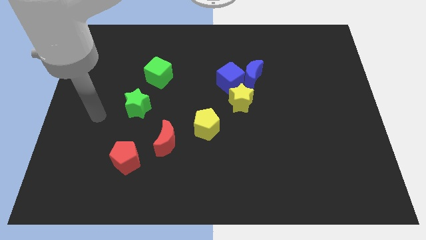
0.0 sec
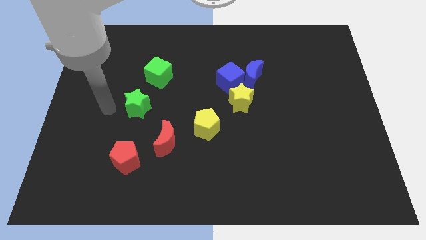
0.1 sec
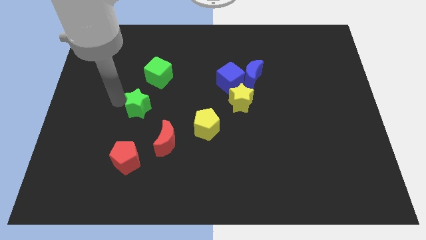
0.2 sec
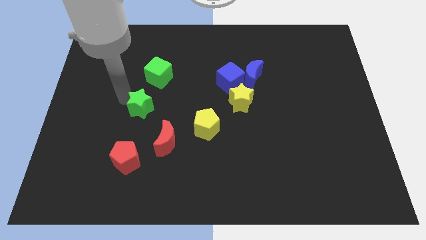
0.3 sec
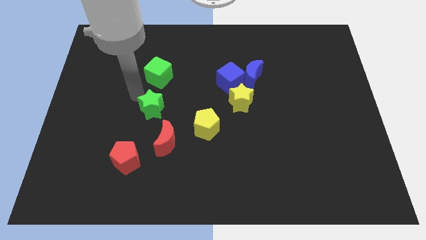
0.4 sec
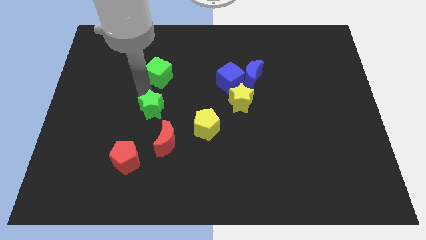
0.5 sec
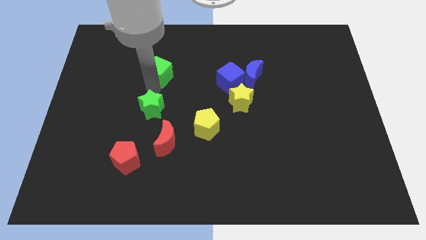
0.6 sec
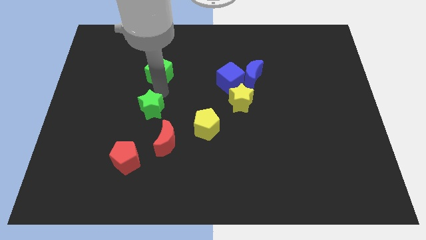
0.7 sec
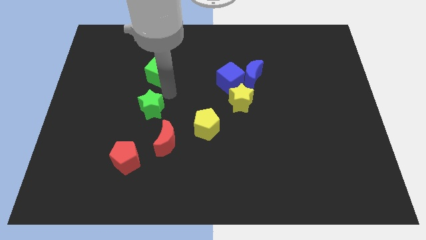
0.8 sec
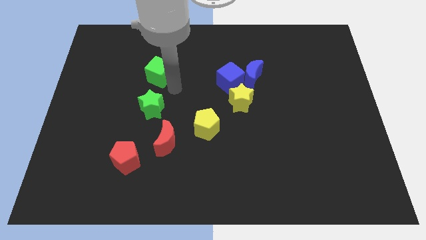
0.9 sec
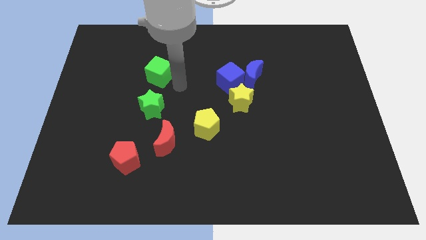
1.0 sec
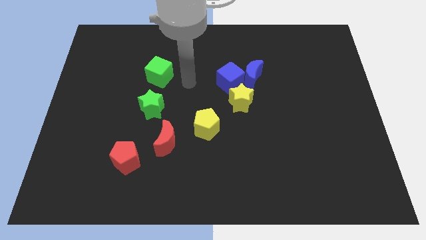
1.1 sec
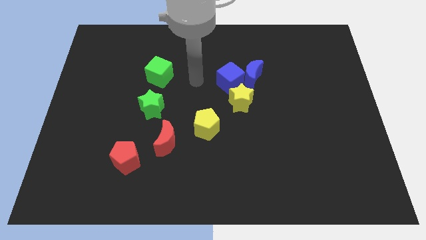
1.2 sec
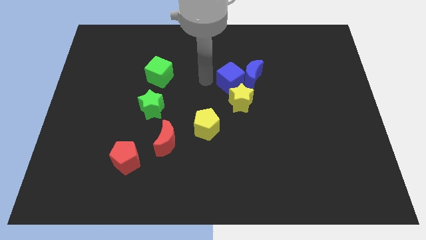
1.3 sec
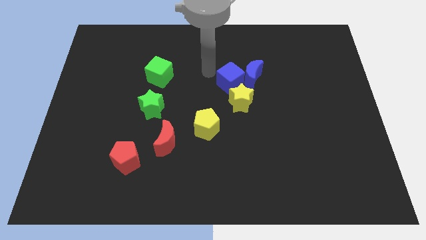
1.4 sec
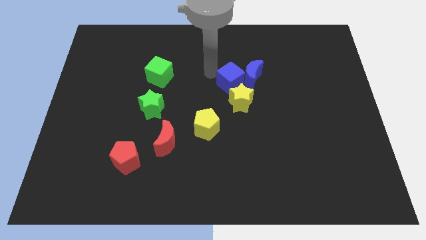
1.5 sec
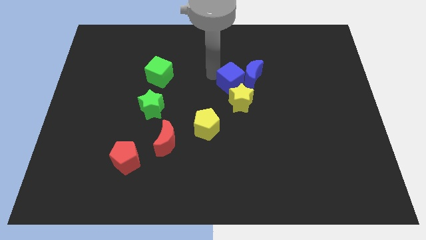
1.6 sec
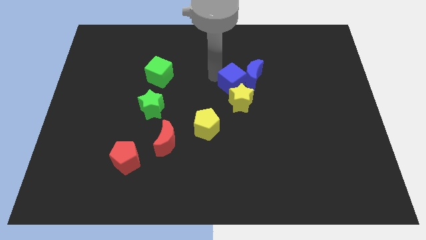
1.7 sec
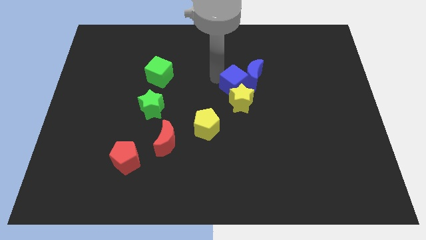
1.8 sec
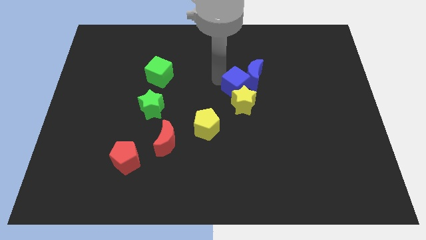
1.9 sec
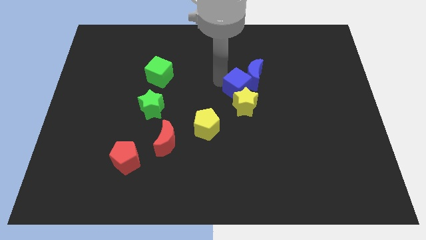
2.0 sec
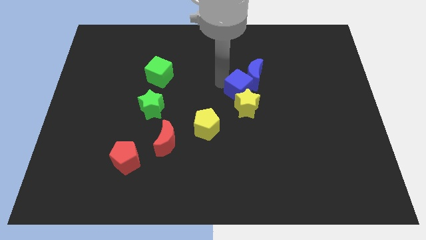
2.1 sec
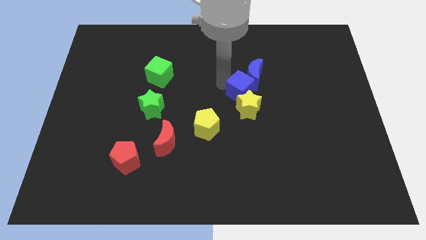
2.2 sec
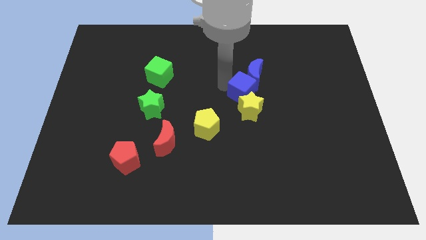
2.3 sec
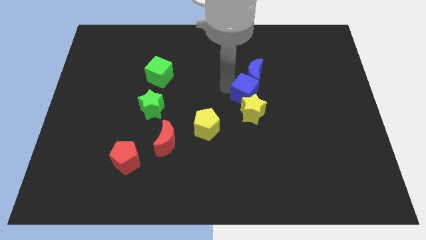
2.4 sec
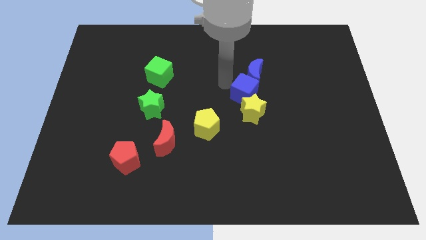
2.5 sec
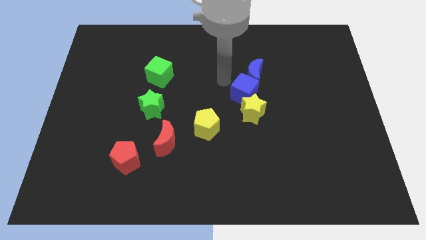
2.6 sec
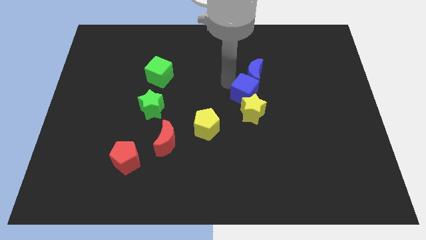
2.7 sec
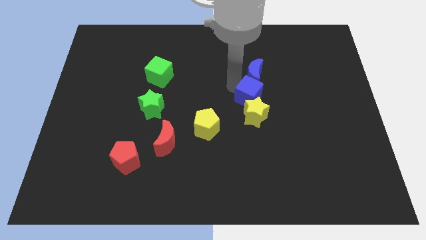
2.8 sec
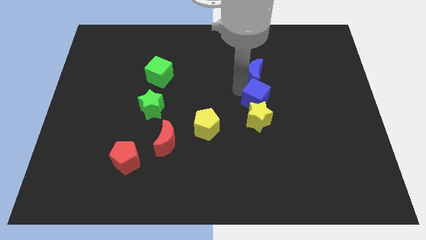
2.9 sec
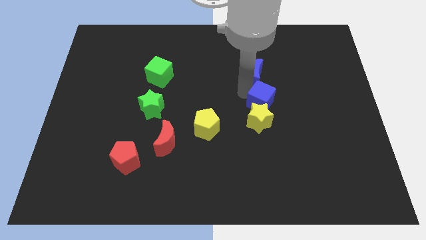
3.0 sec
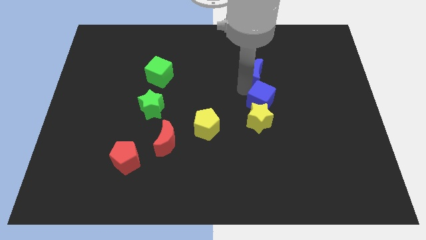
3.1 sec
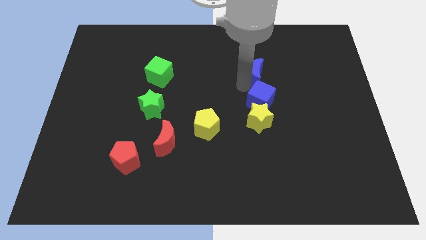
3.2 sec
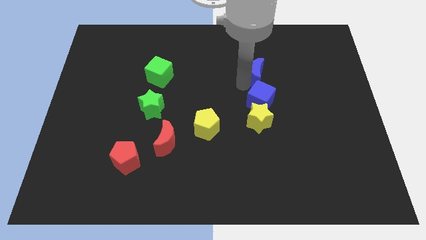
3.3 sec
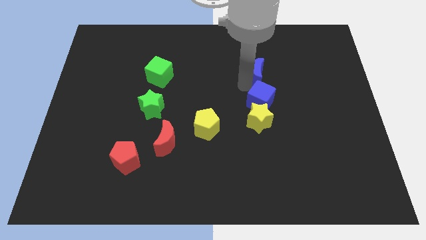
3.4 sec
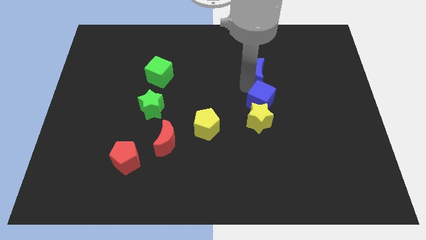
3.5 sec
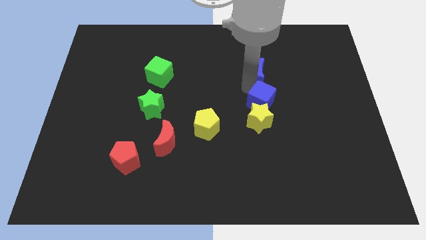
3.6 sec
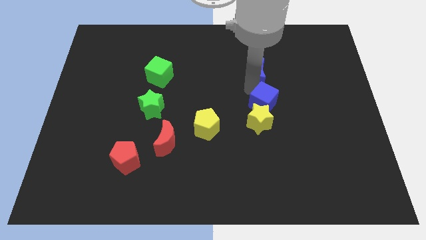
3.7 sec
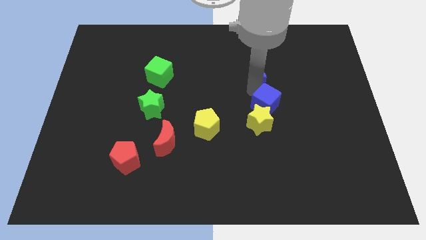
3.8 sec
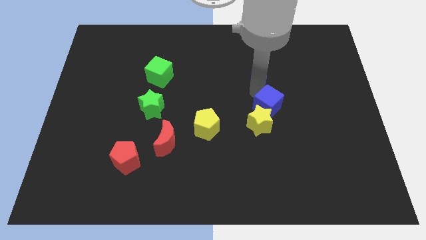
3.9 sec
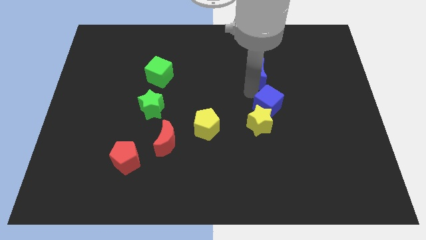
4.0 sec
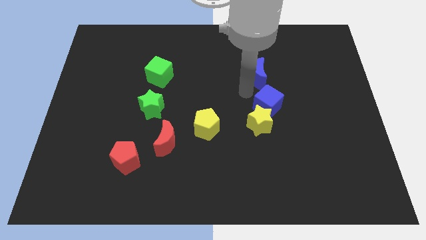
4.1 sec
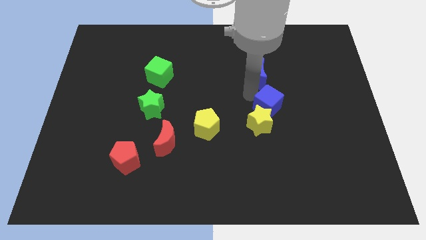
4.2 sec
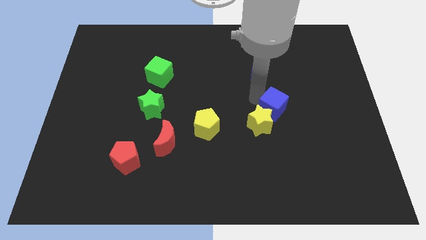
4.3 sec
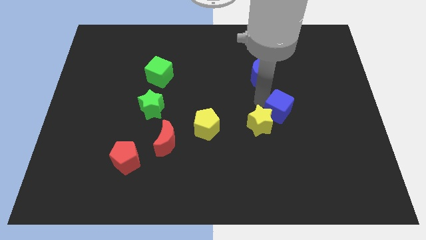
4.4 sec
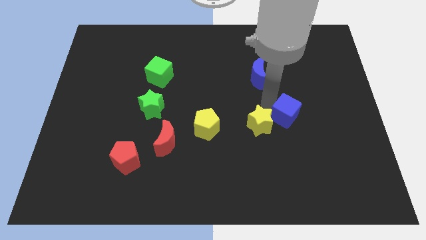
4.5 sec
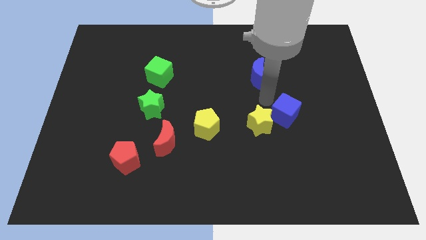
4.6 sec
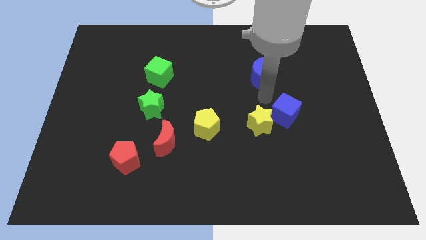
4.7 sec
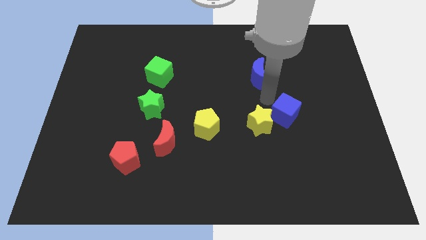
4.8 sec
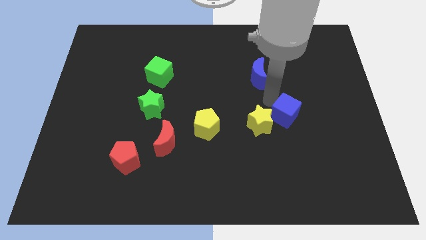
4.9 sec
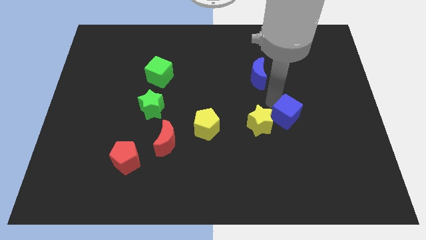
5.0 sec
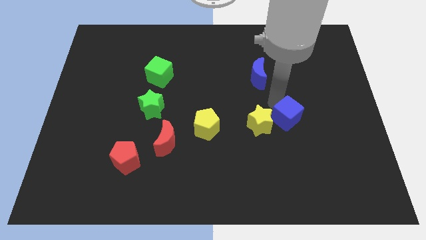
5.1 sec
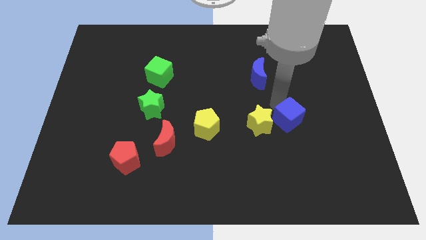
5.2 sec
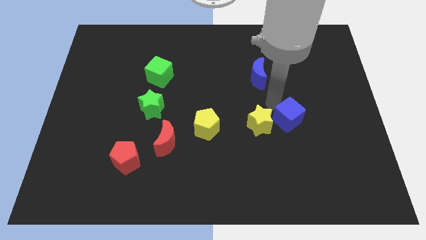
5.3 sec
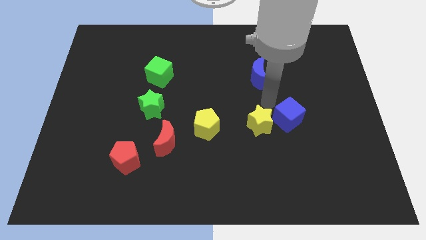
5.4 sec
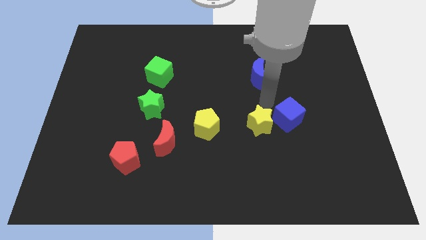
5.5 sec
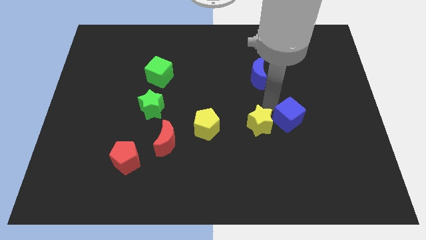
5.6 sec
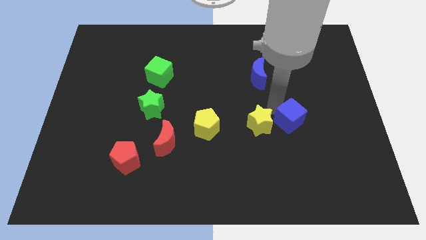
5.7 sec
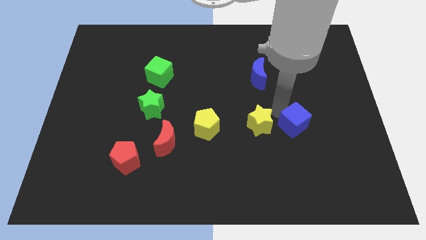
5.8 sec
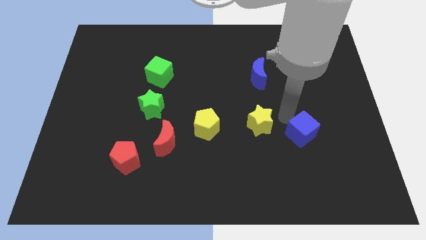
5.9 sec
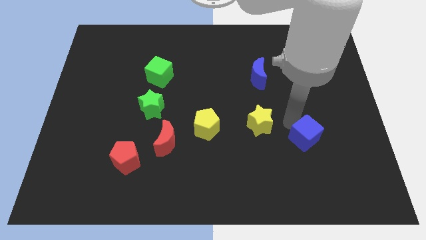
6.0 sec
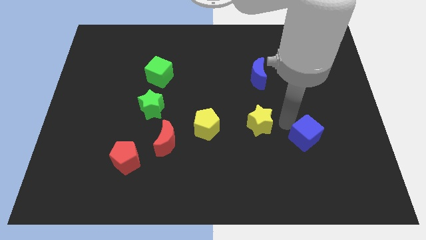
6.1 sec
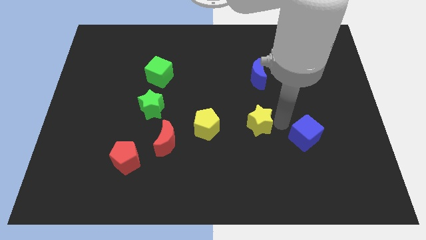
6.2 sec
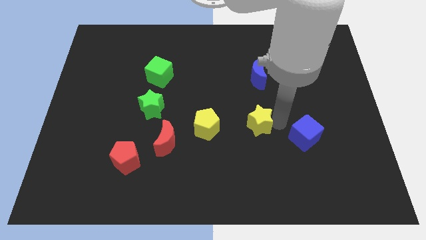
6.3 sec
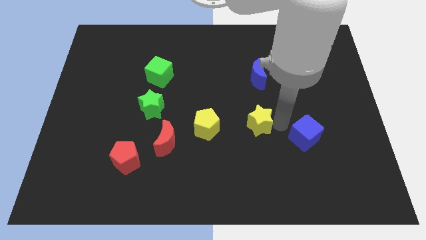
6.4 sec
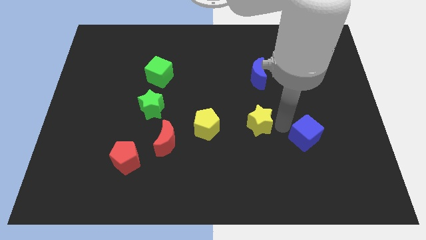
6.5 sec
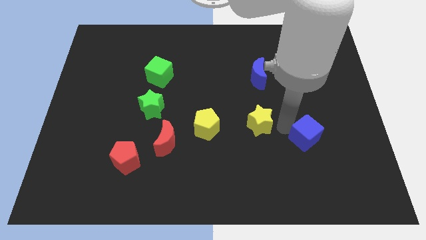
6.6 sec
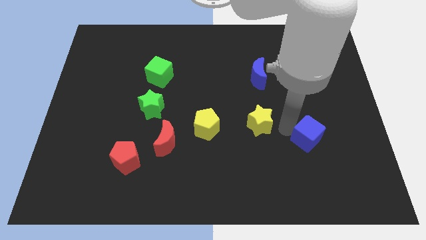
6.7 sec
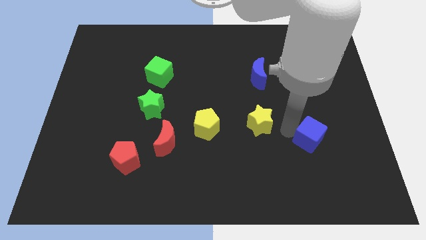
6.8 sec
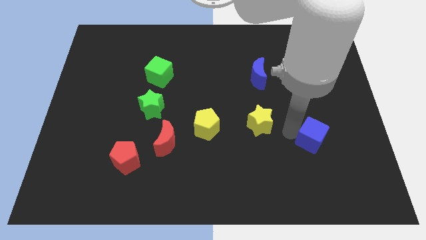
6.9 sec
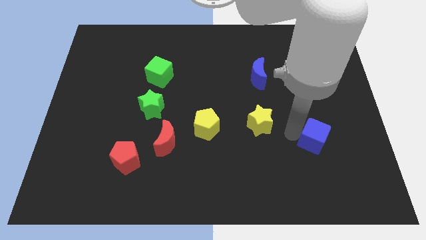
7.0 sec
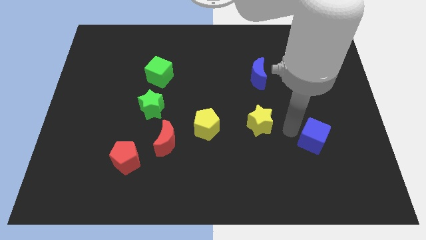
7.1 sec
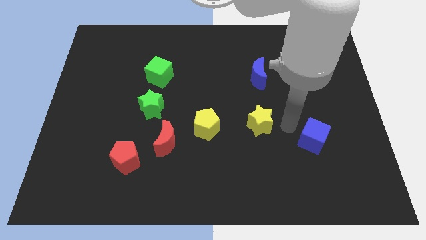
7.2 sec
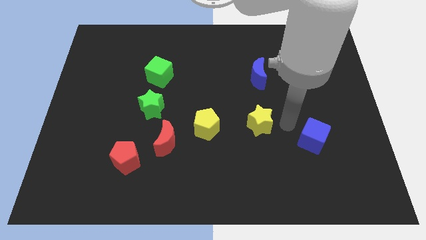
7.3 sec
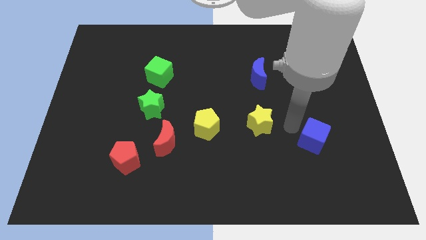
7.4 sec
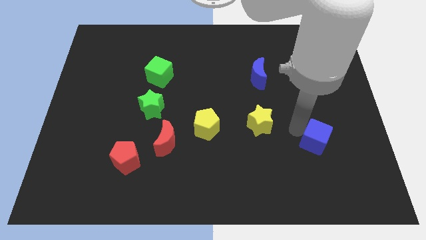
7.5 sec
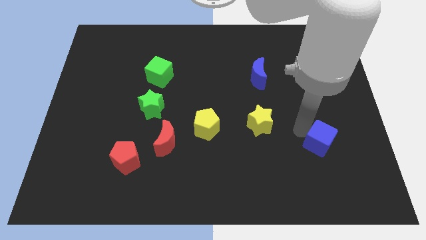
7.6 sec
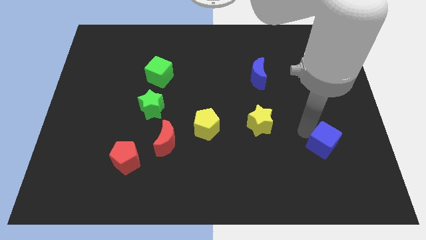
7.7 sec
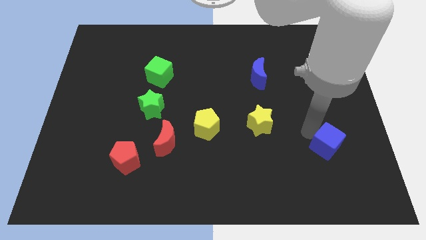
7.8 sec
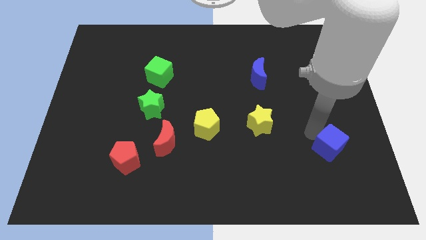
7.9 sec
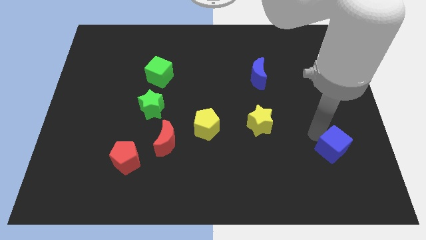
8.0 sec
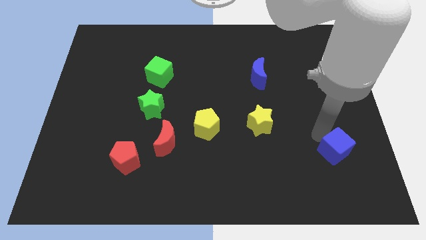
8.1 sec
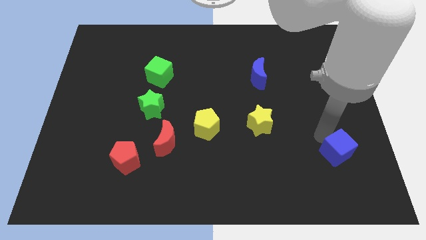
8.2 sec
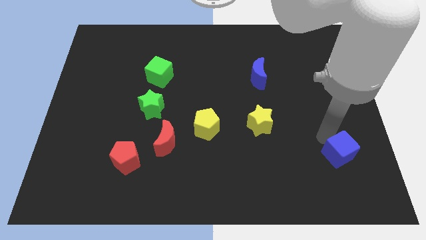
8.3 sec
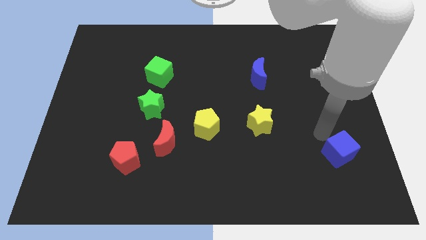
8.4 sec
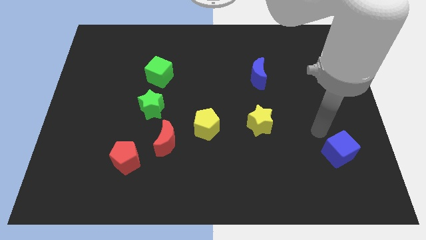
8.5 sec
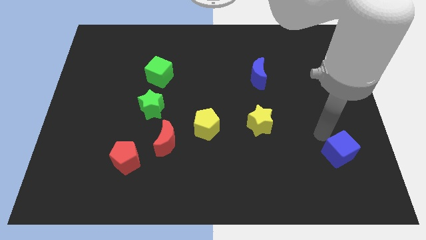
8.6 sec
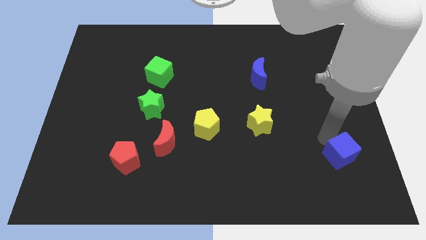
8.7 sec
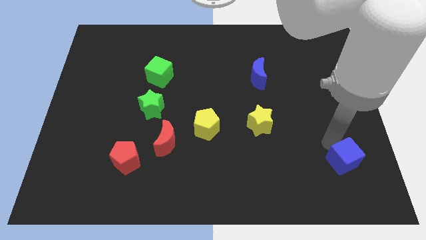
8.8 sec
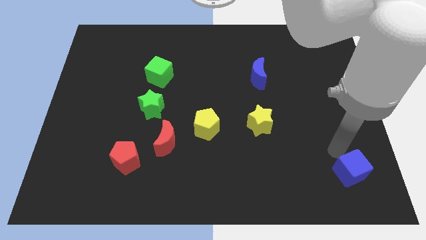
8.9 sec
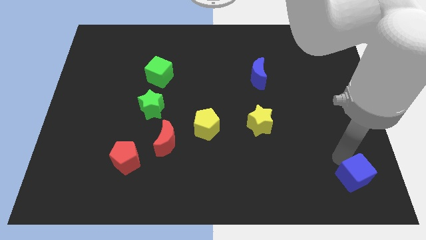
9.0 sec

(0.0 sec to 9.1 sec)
put the blue cube to the bottom right
